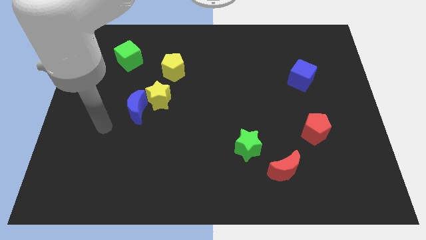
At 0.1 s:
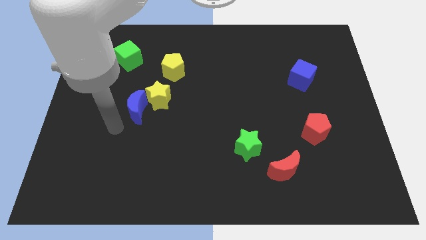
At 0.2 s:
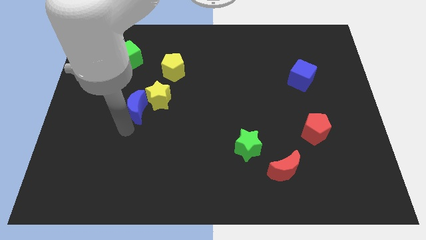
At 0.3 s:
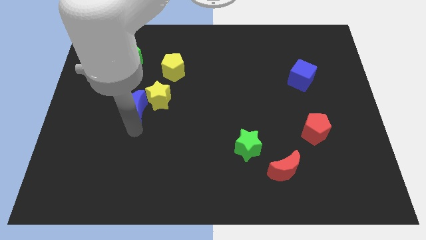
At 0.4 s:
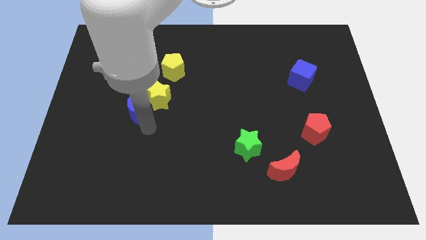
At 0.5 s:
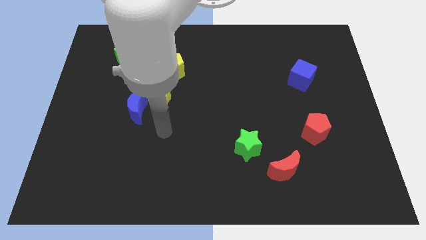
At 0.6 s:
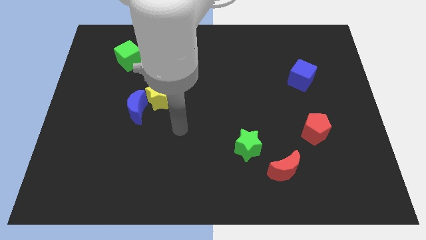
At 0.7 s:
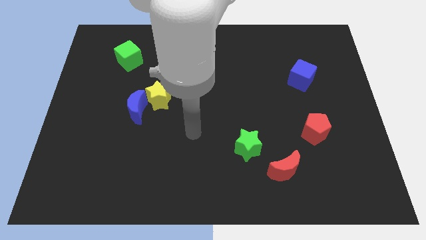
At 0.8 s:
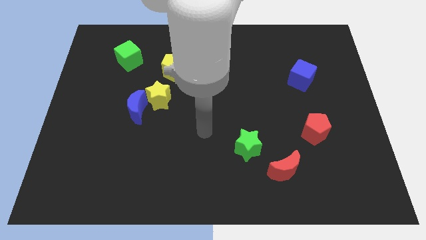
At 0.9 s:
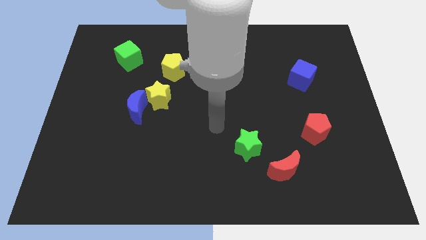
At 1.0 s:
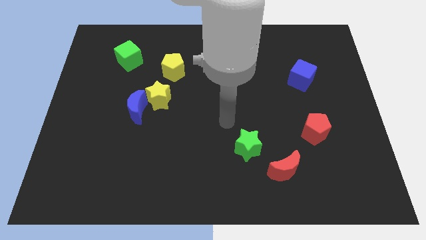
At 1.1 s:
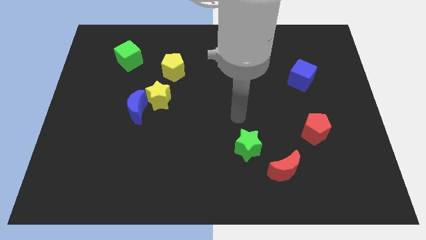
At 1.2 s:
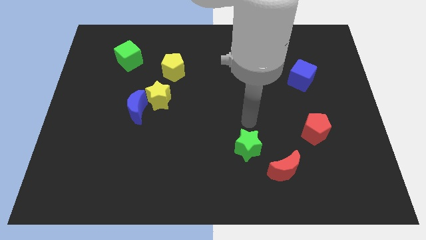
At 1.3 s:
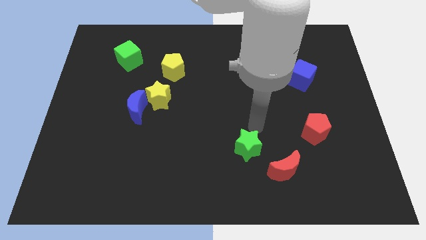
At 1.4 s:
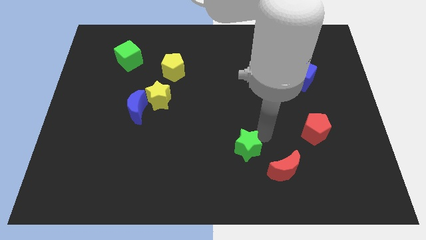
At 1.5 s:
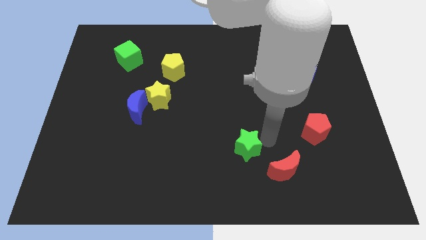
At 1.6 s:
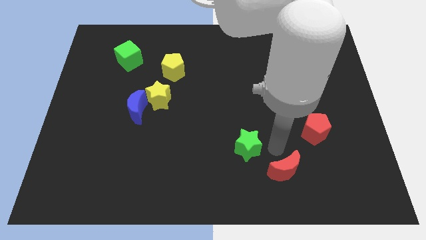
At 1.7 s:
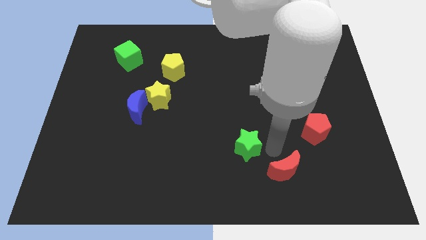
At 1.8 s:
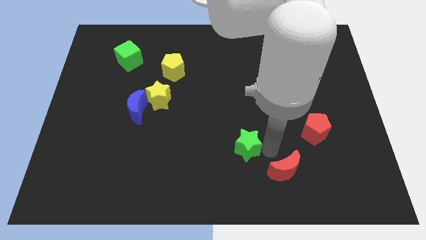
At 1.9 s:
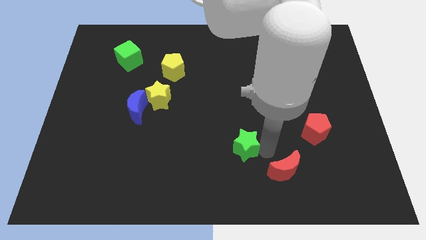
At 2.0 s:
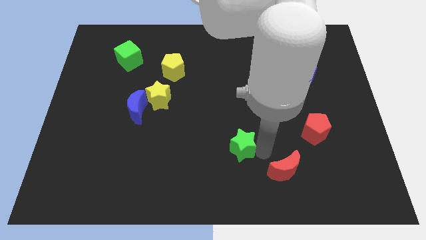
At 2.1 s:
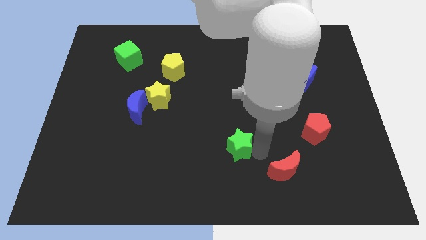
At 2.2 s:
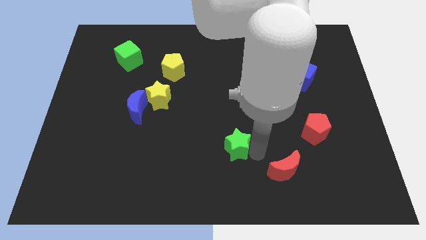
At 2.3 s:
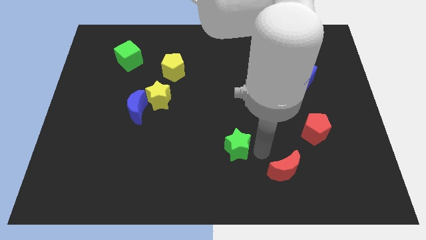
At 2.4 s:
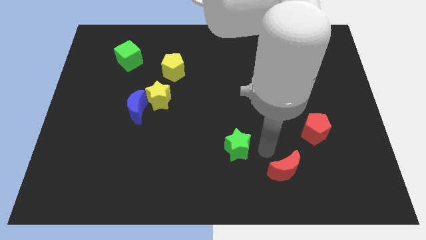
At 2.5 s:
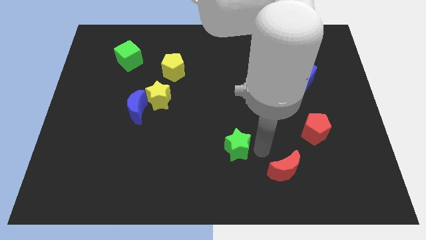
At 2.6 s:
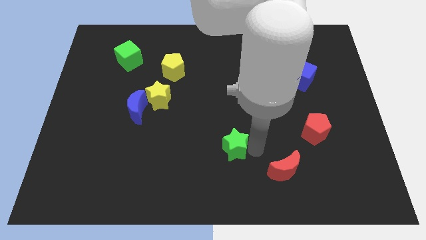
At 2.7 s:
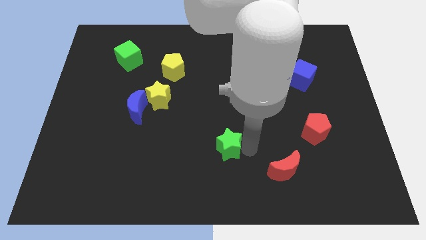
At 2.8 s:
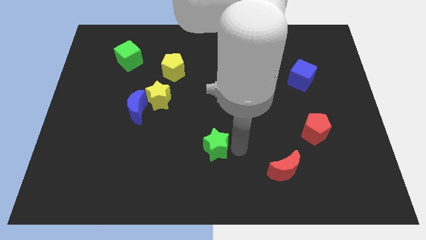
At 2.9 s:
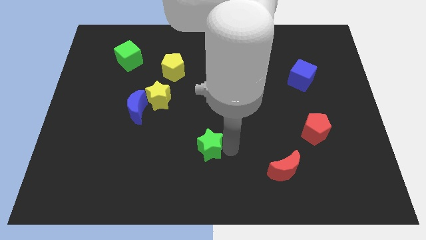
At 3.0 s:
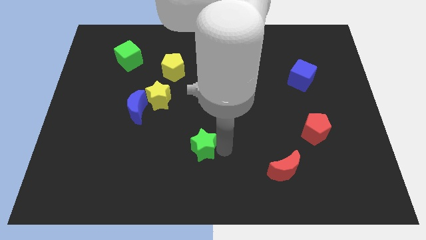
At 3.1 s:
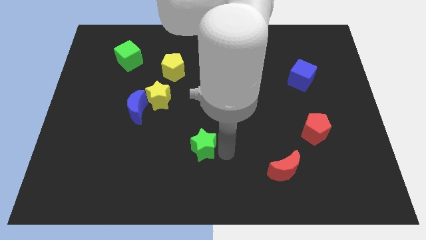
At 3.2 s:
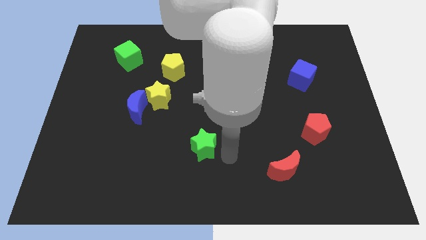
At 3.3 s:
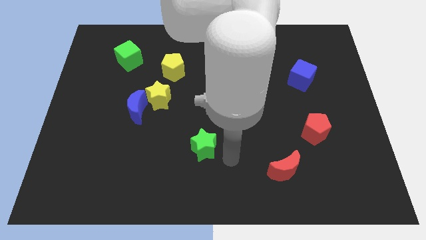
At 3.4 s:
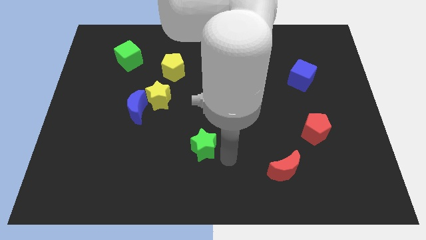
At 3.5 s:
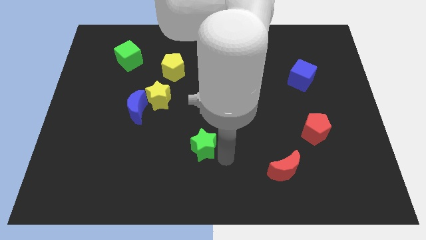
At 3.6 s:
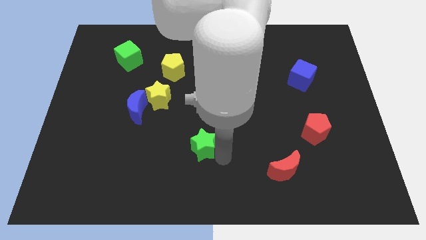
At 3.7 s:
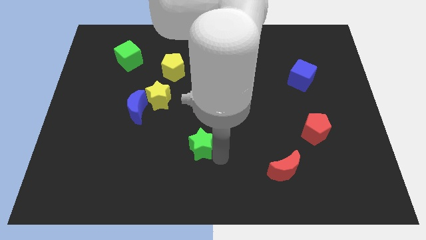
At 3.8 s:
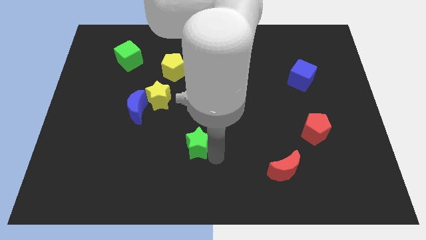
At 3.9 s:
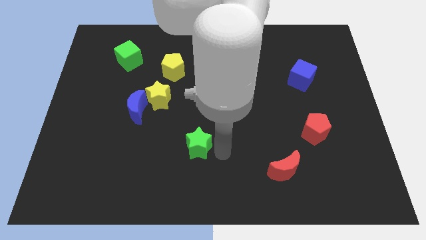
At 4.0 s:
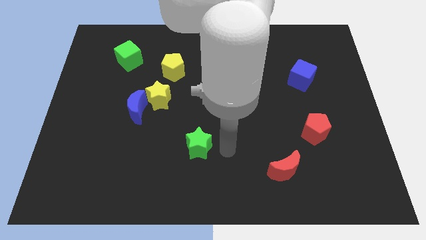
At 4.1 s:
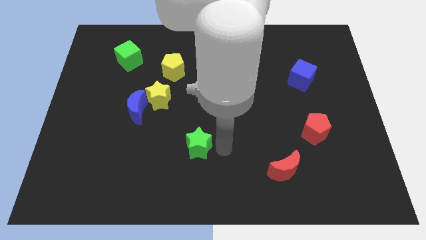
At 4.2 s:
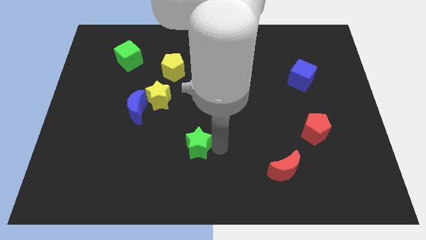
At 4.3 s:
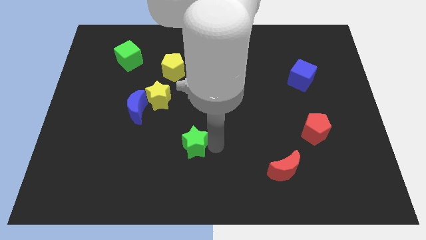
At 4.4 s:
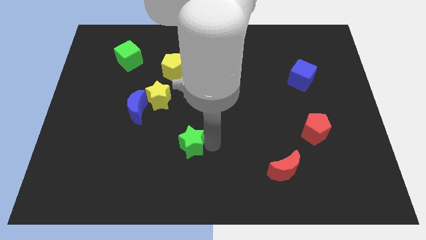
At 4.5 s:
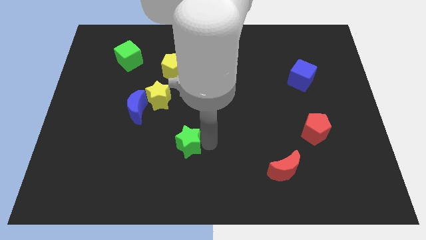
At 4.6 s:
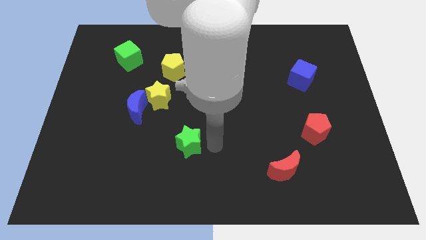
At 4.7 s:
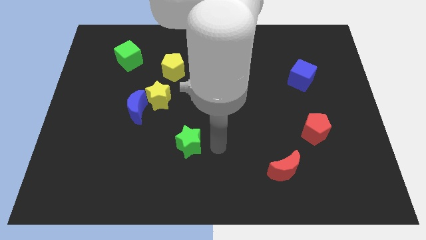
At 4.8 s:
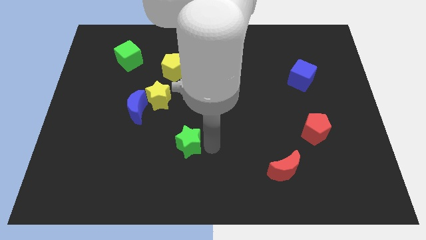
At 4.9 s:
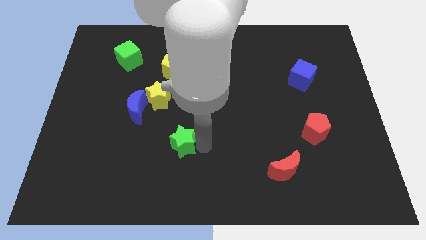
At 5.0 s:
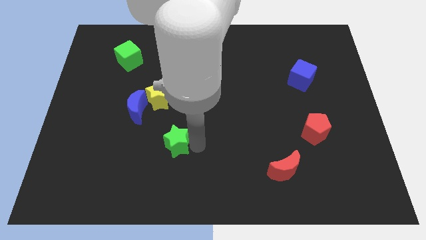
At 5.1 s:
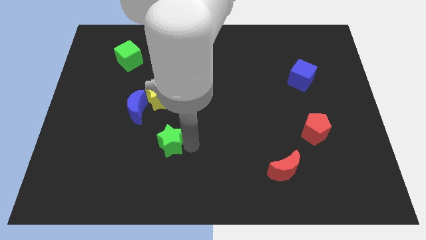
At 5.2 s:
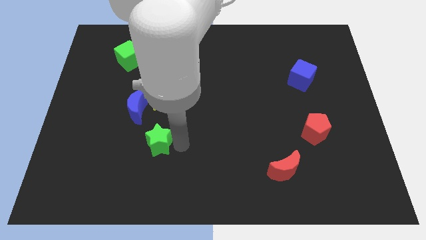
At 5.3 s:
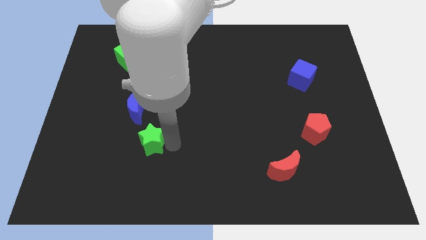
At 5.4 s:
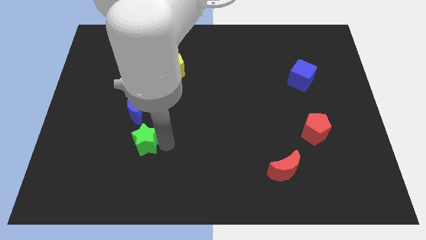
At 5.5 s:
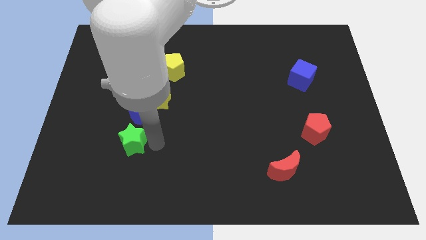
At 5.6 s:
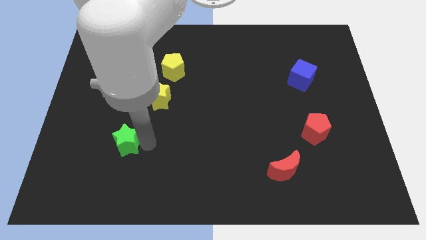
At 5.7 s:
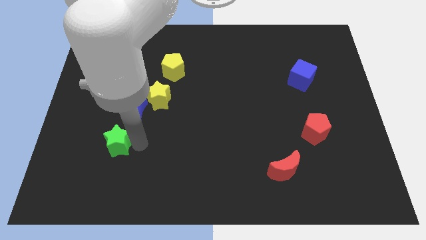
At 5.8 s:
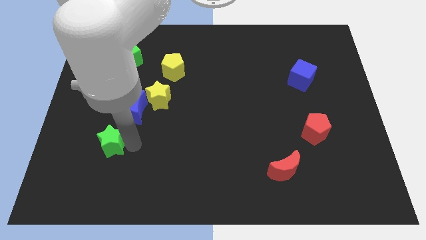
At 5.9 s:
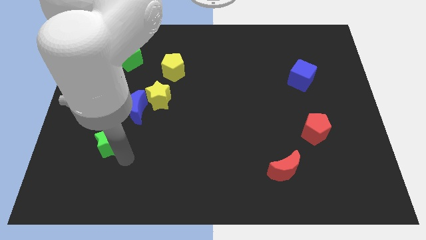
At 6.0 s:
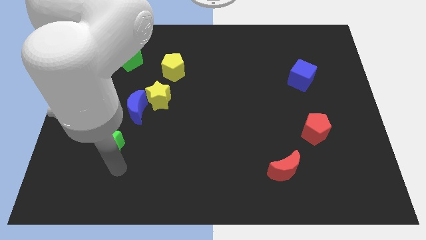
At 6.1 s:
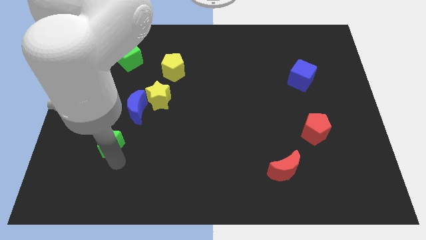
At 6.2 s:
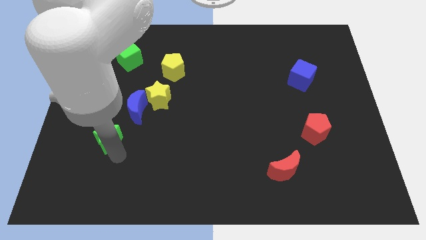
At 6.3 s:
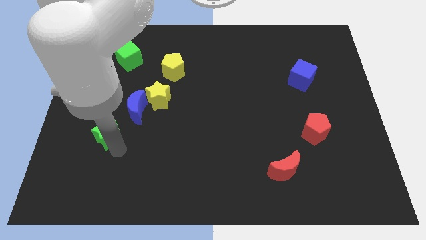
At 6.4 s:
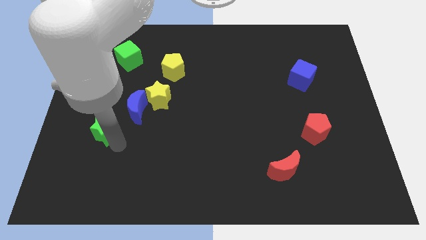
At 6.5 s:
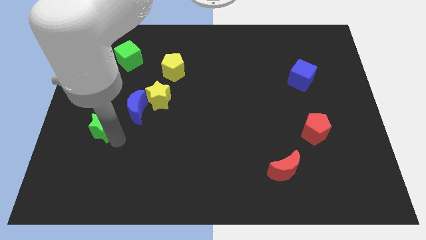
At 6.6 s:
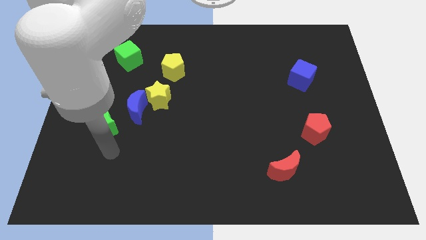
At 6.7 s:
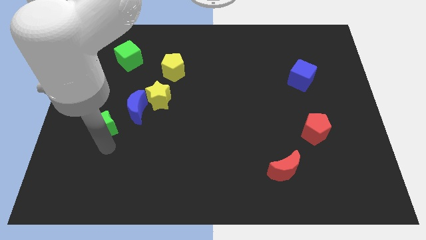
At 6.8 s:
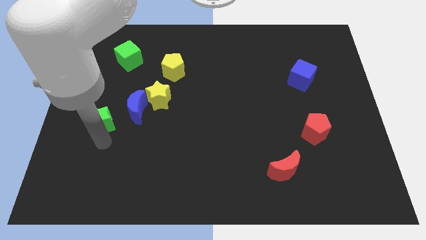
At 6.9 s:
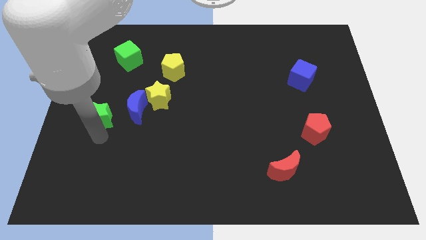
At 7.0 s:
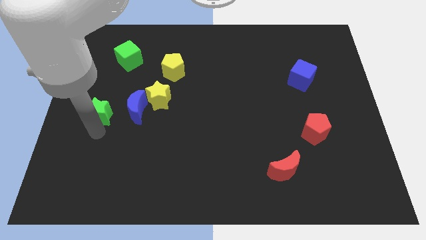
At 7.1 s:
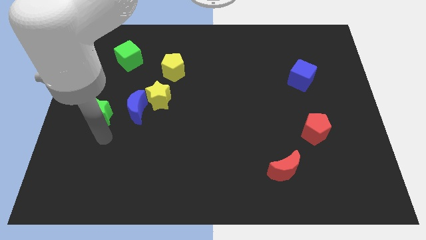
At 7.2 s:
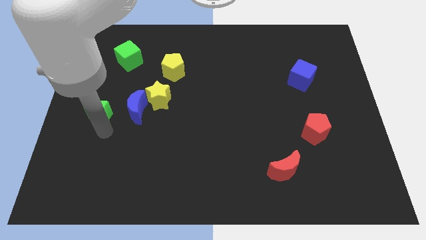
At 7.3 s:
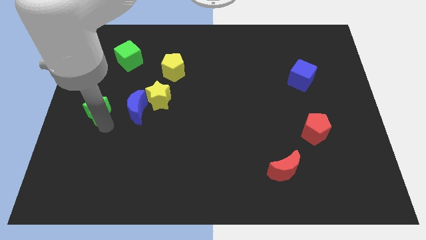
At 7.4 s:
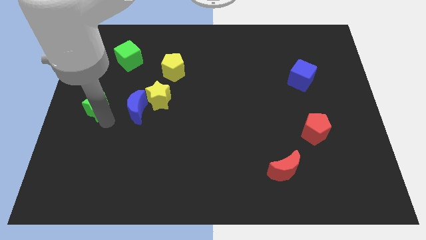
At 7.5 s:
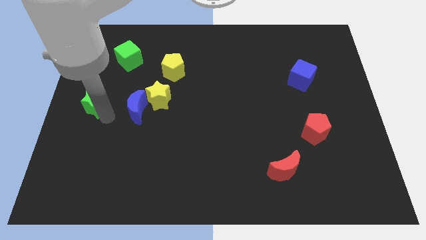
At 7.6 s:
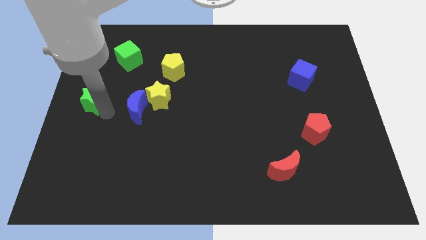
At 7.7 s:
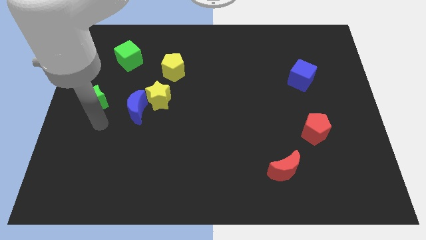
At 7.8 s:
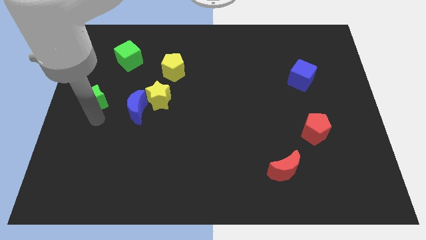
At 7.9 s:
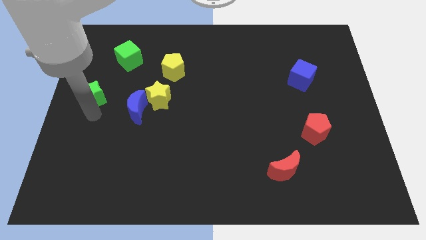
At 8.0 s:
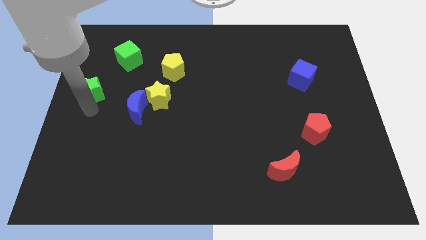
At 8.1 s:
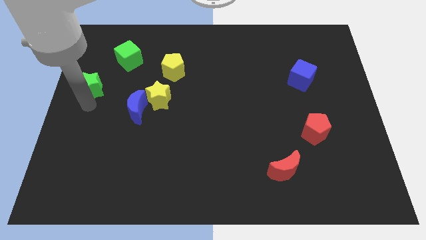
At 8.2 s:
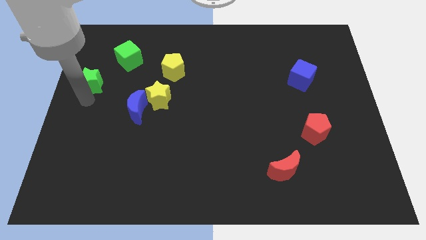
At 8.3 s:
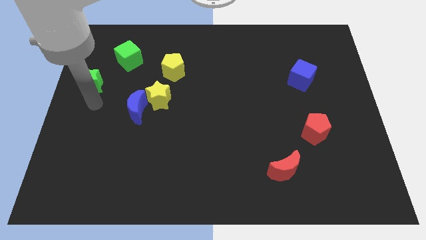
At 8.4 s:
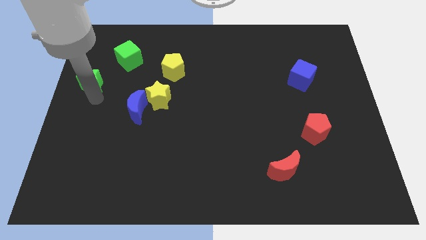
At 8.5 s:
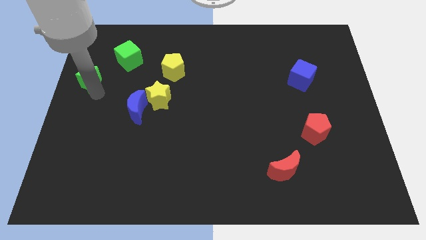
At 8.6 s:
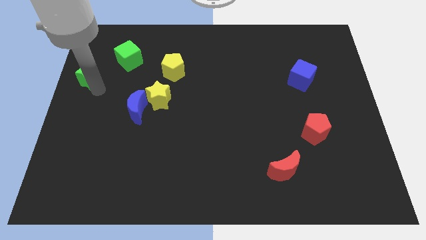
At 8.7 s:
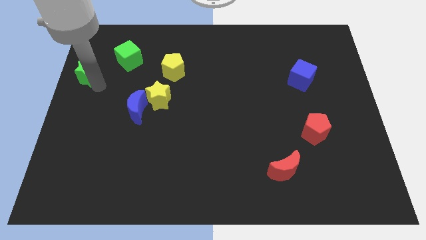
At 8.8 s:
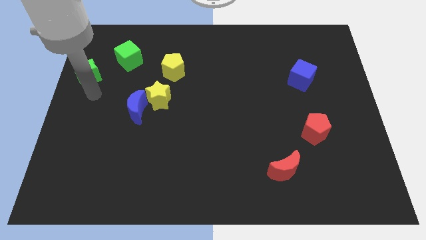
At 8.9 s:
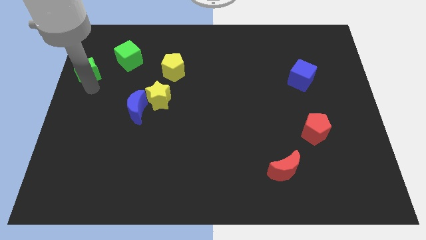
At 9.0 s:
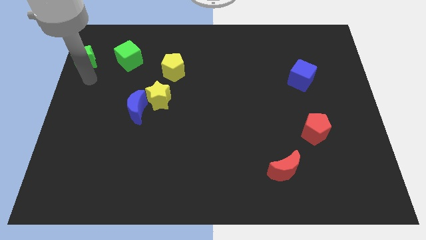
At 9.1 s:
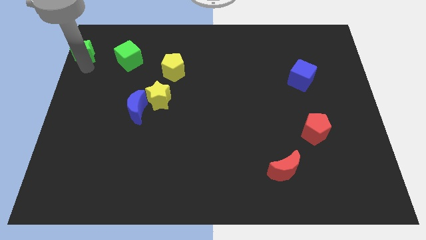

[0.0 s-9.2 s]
push the green star to the upper left corner
